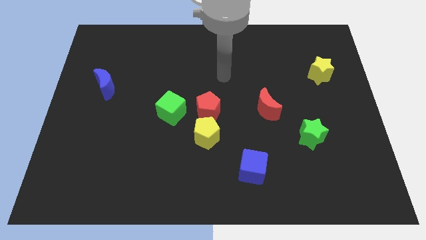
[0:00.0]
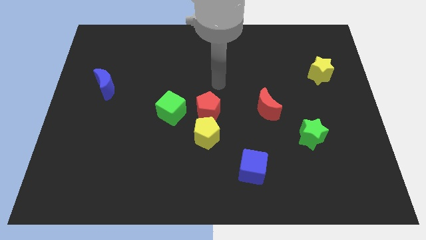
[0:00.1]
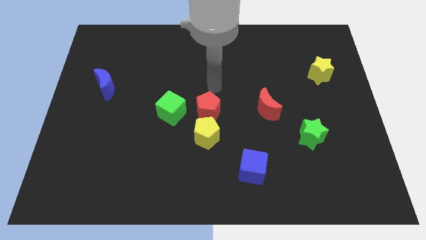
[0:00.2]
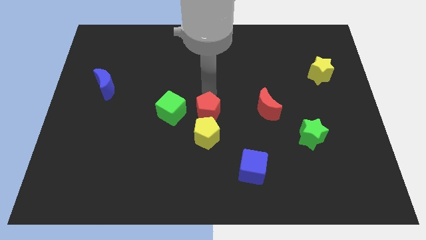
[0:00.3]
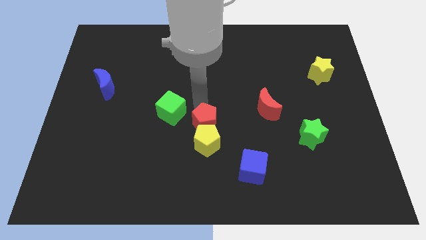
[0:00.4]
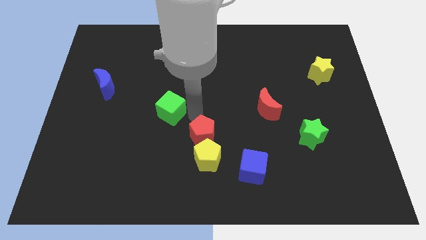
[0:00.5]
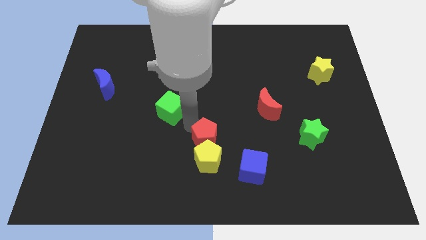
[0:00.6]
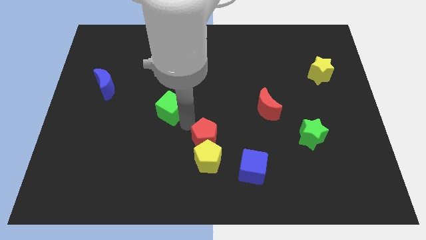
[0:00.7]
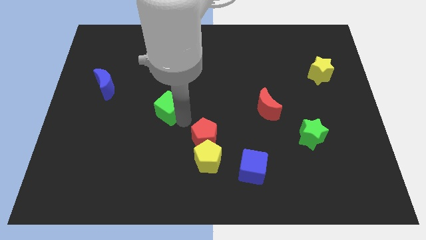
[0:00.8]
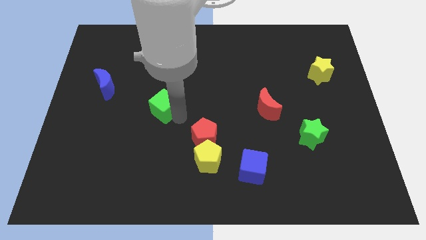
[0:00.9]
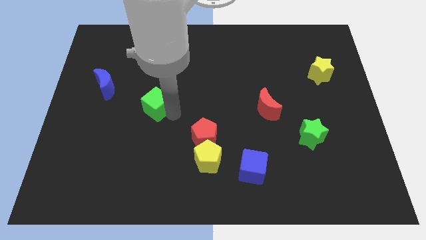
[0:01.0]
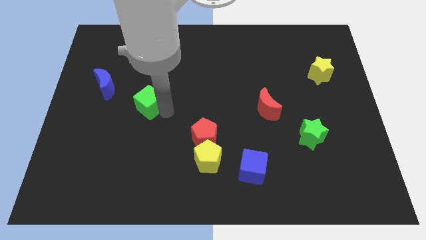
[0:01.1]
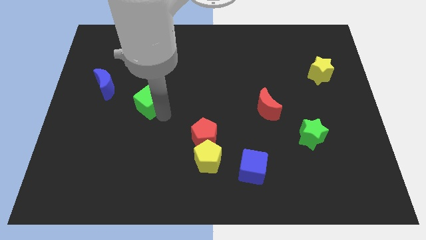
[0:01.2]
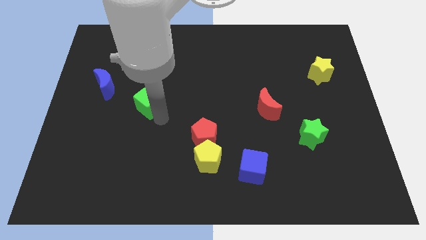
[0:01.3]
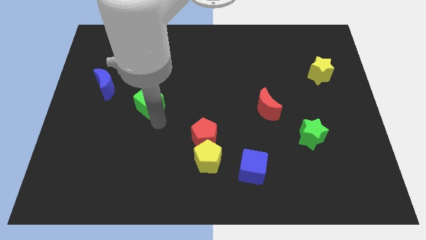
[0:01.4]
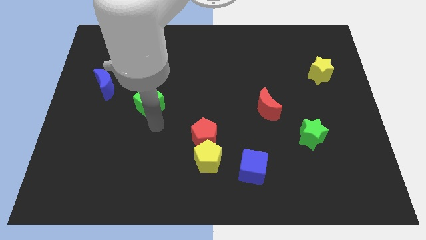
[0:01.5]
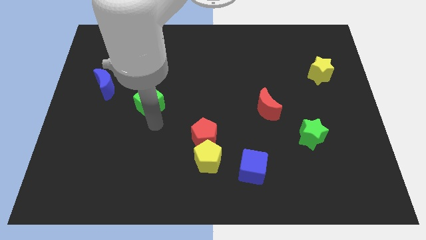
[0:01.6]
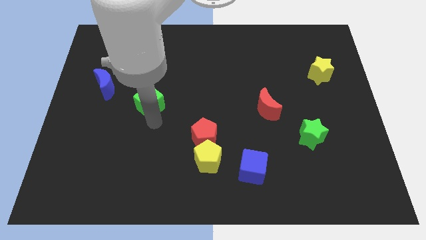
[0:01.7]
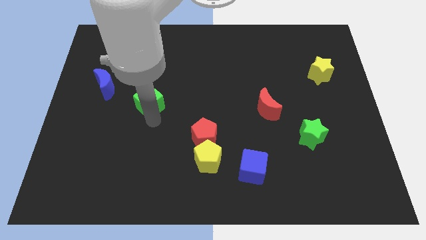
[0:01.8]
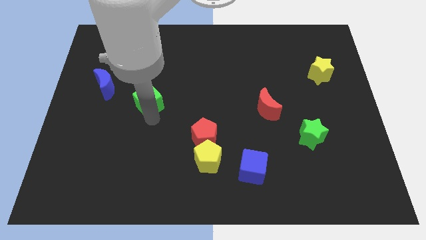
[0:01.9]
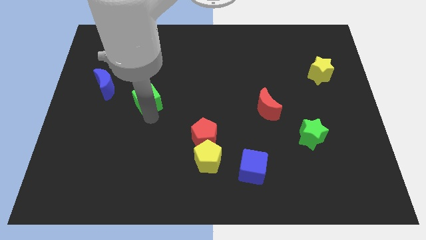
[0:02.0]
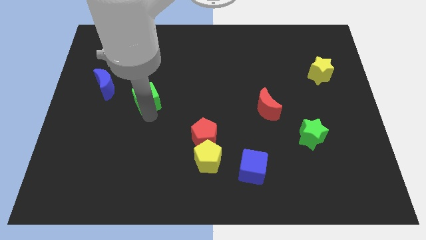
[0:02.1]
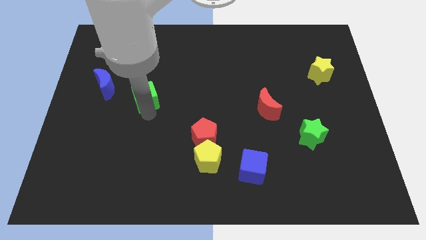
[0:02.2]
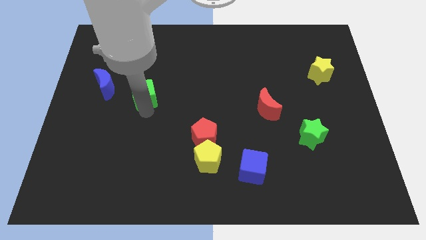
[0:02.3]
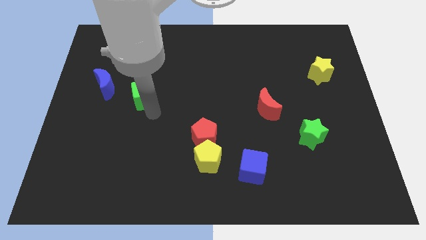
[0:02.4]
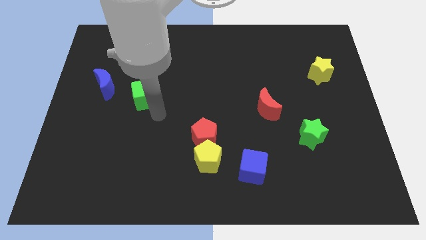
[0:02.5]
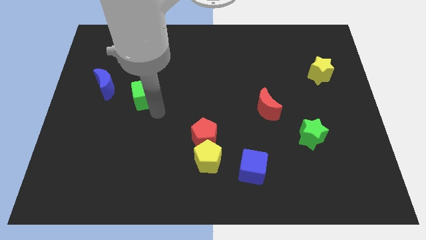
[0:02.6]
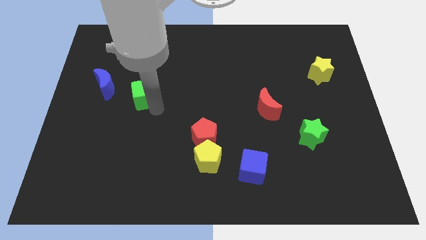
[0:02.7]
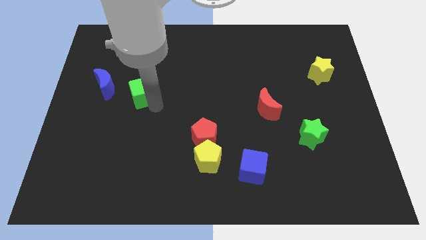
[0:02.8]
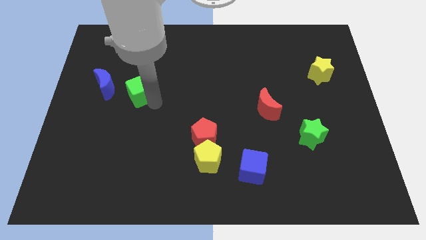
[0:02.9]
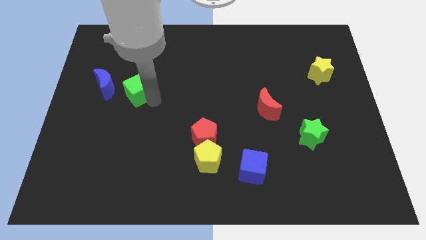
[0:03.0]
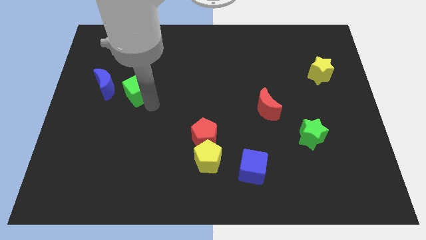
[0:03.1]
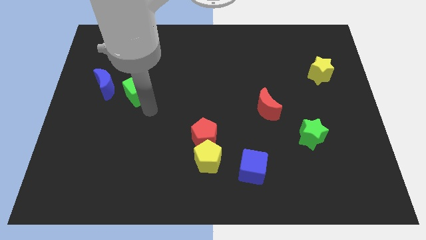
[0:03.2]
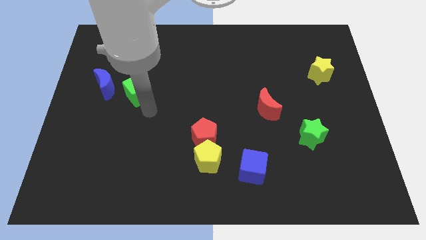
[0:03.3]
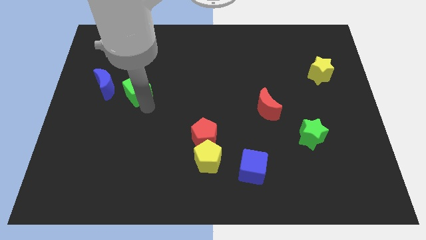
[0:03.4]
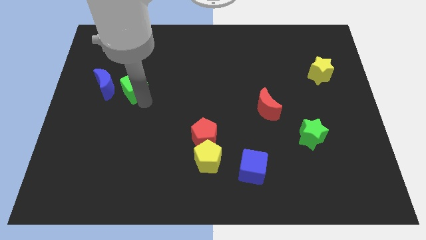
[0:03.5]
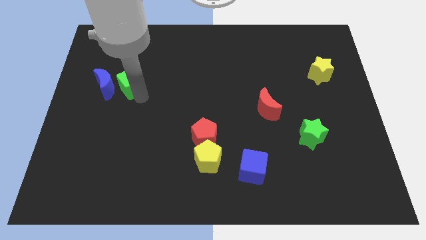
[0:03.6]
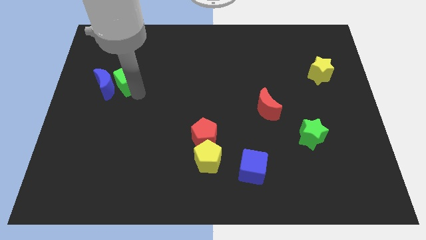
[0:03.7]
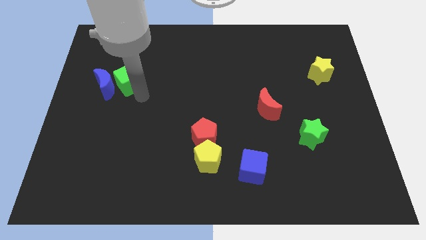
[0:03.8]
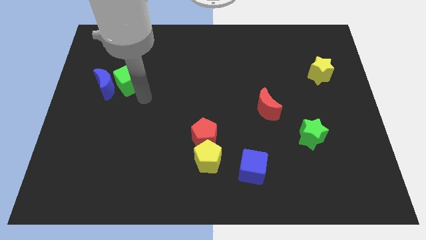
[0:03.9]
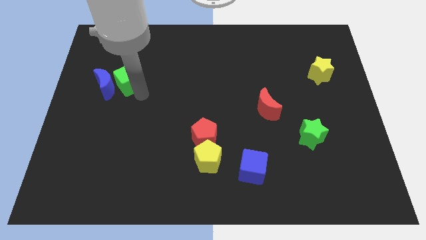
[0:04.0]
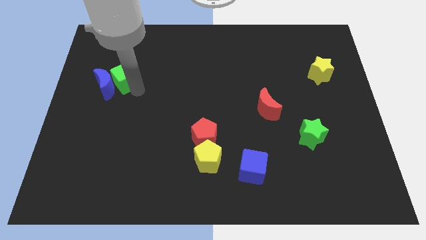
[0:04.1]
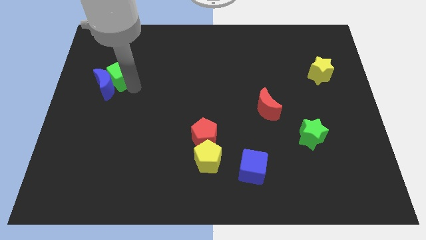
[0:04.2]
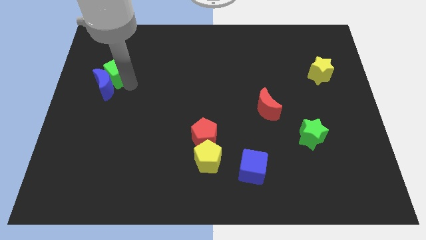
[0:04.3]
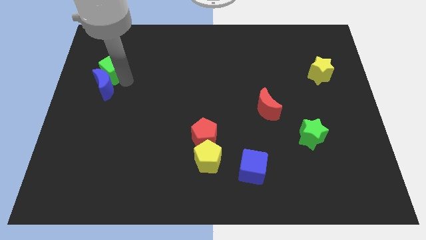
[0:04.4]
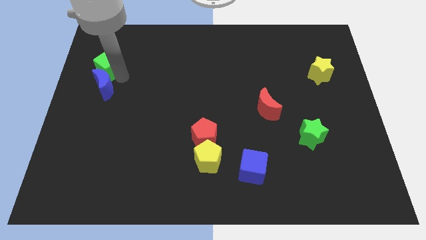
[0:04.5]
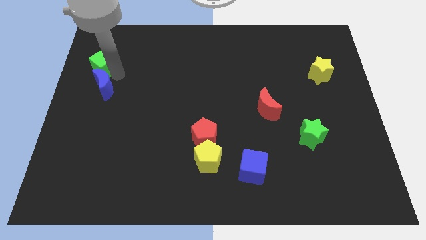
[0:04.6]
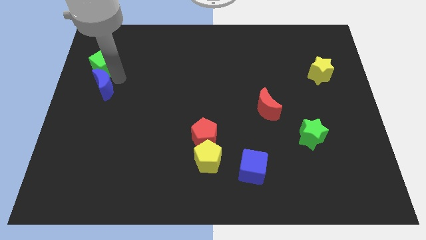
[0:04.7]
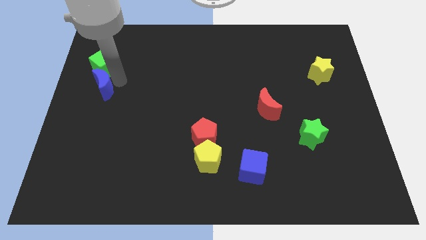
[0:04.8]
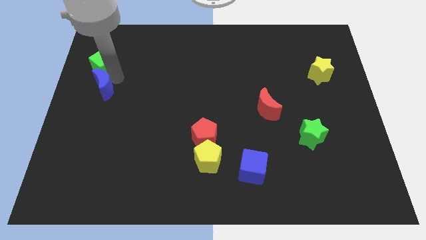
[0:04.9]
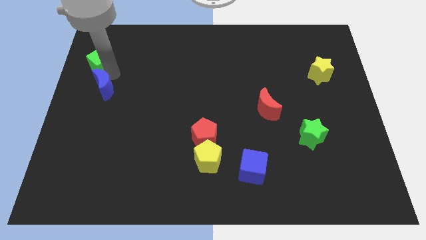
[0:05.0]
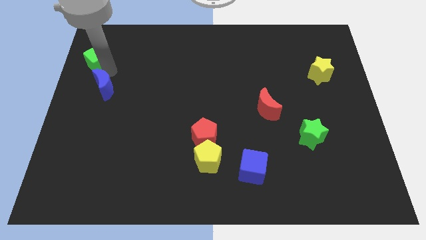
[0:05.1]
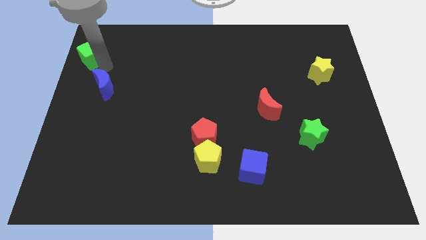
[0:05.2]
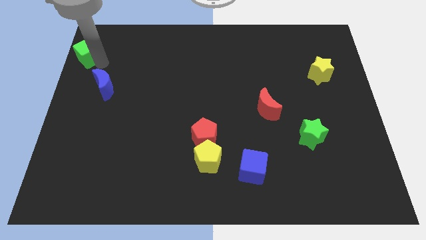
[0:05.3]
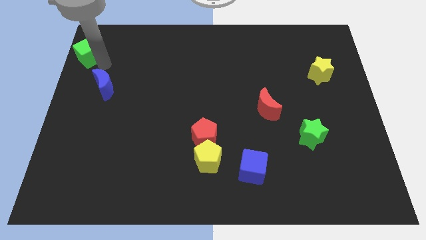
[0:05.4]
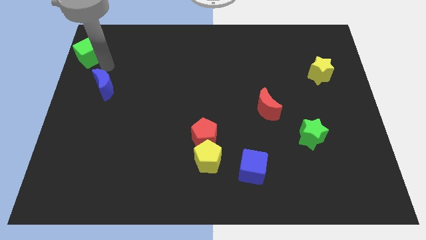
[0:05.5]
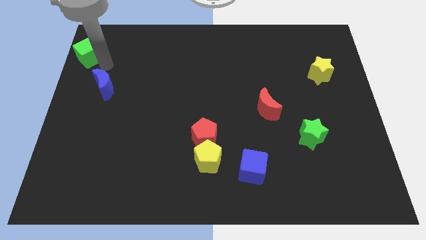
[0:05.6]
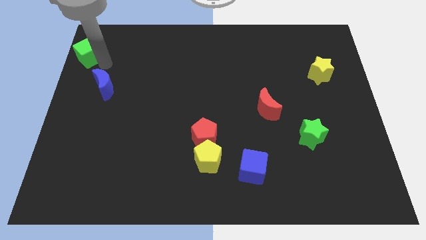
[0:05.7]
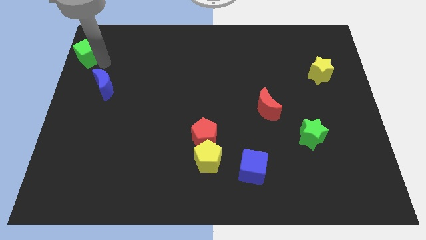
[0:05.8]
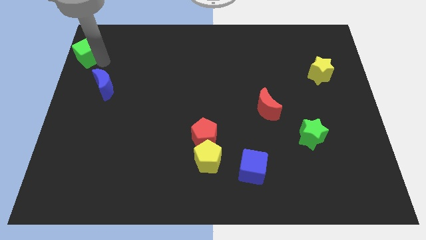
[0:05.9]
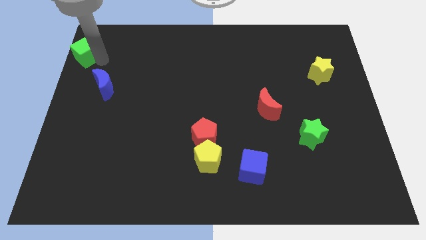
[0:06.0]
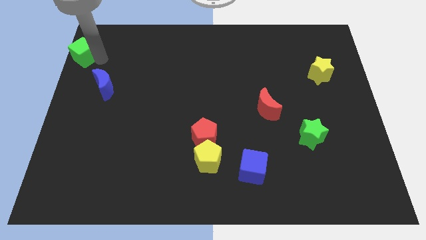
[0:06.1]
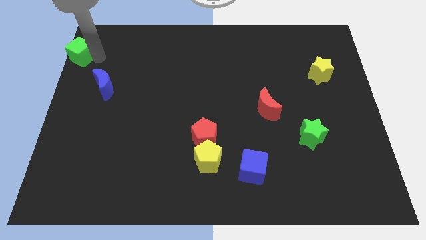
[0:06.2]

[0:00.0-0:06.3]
put the green cube to the top left
